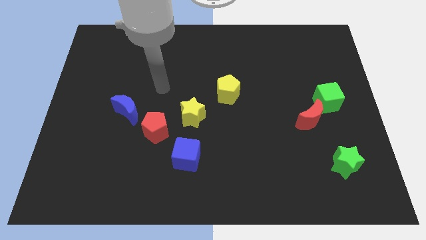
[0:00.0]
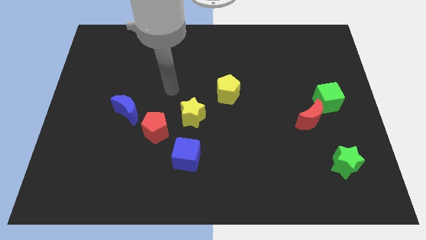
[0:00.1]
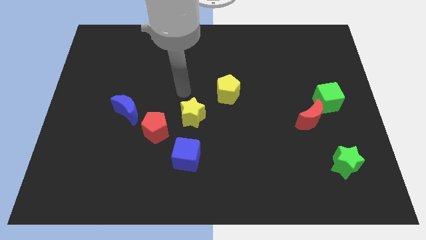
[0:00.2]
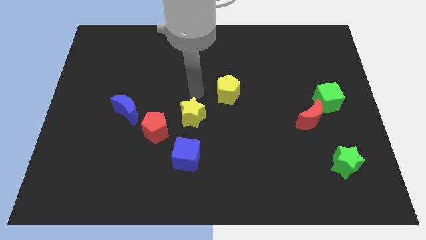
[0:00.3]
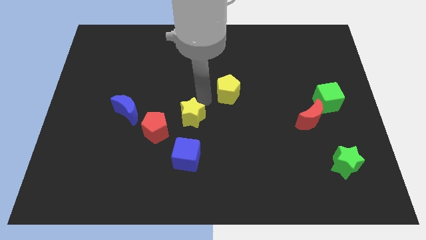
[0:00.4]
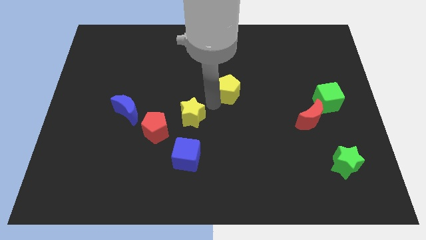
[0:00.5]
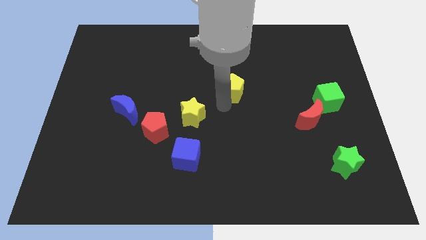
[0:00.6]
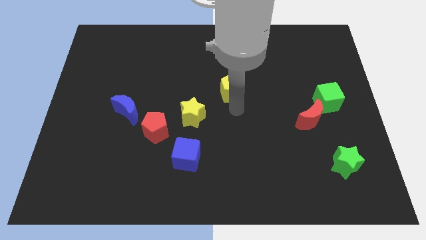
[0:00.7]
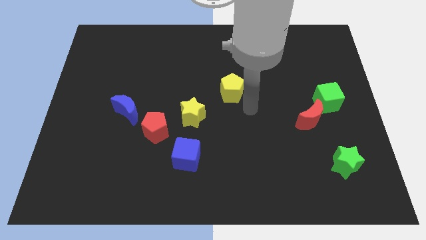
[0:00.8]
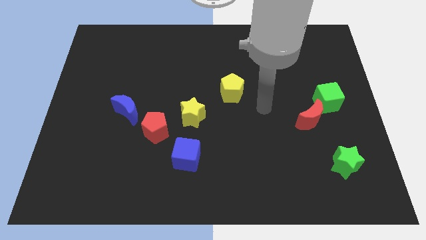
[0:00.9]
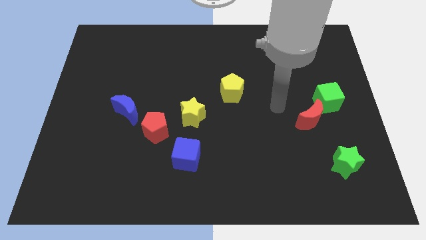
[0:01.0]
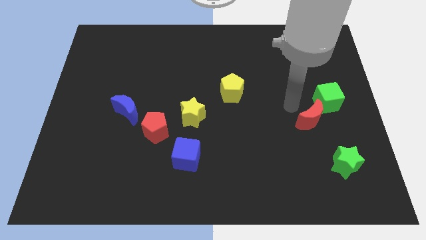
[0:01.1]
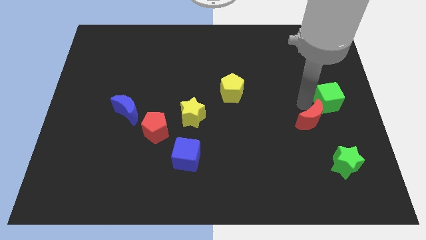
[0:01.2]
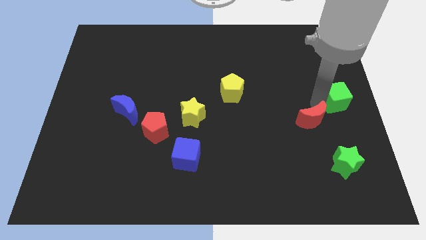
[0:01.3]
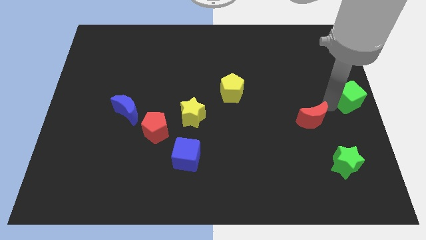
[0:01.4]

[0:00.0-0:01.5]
pull the red moon apart from the green cube

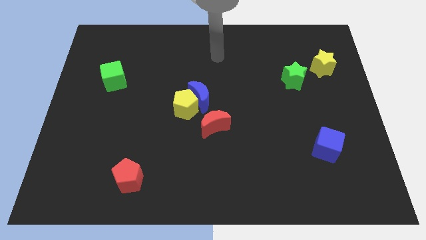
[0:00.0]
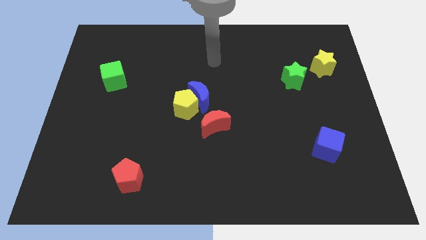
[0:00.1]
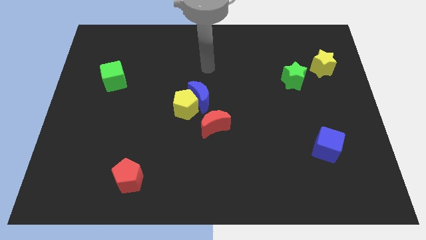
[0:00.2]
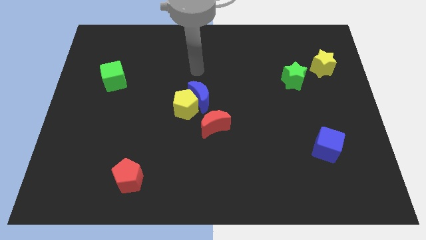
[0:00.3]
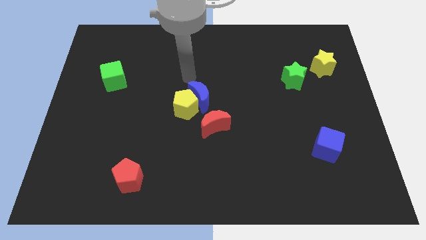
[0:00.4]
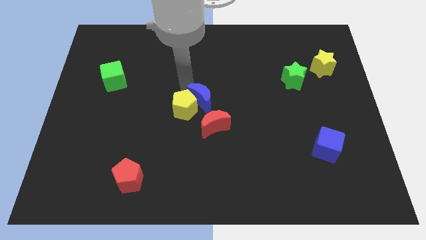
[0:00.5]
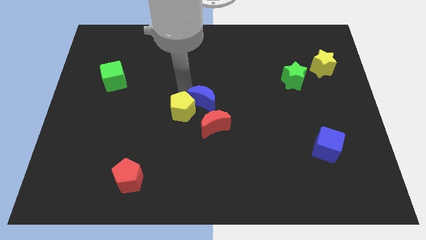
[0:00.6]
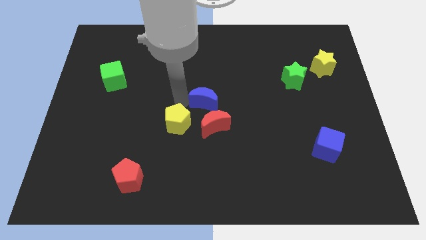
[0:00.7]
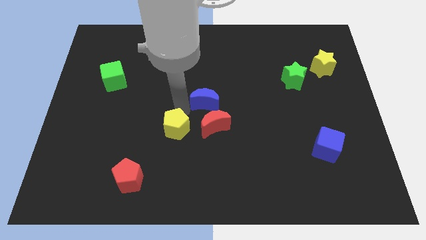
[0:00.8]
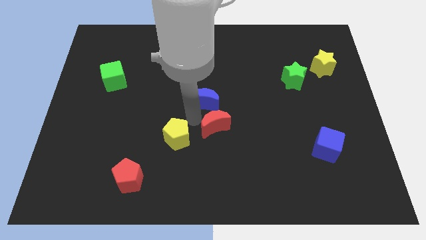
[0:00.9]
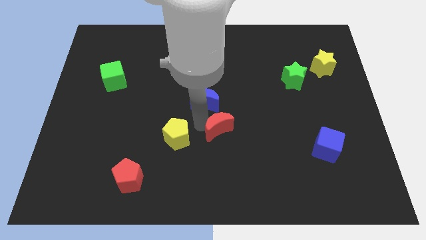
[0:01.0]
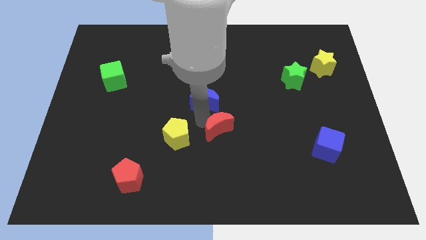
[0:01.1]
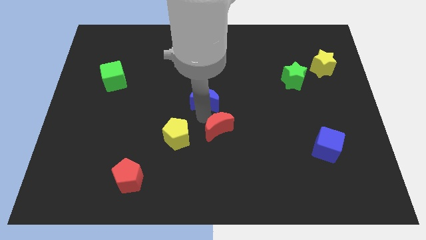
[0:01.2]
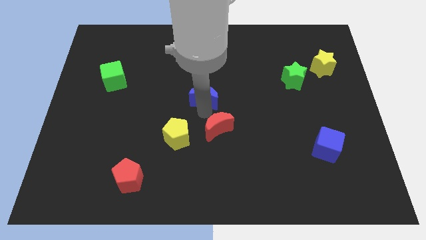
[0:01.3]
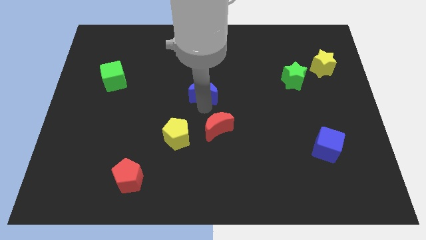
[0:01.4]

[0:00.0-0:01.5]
separate the blue moon from the yellow pentagon and red moon

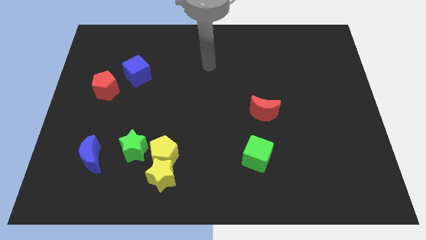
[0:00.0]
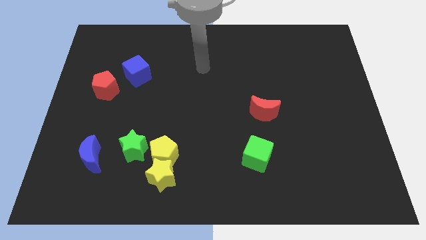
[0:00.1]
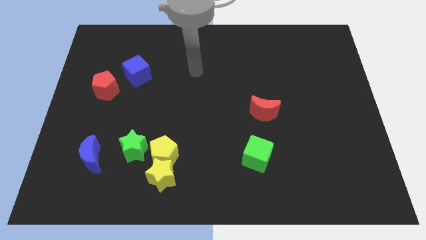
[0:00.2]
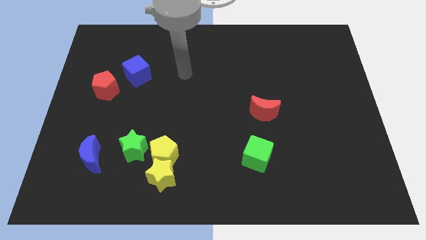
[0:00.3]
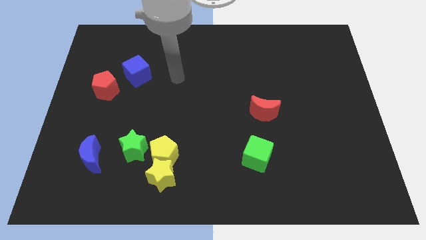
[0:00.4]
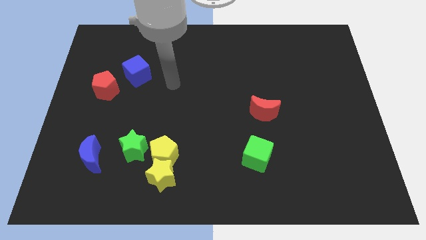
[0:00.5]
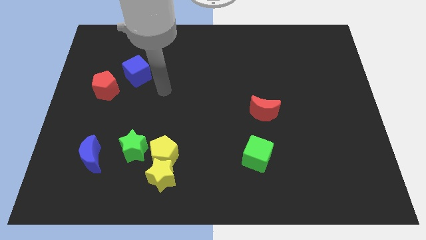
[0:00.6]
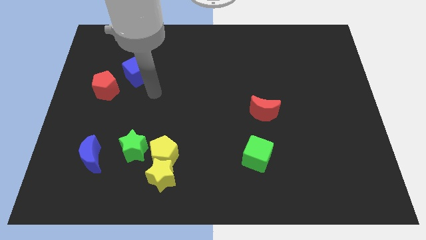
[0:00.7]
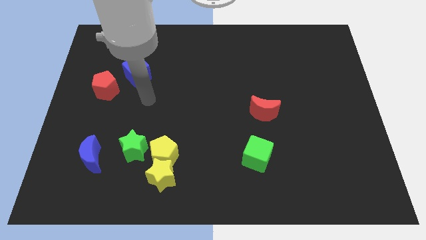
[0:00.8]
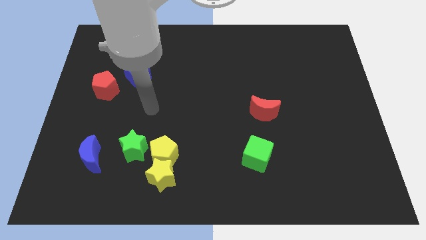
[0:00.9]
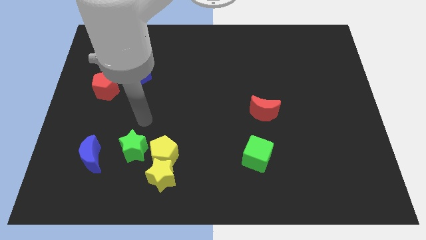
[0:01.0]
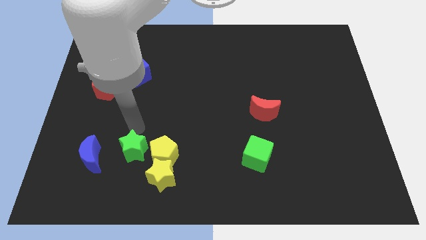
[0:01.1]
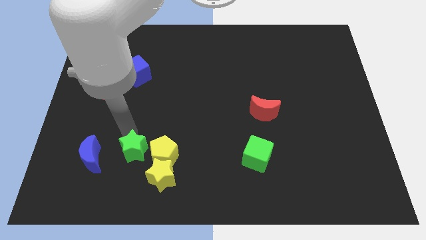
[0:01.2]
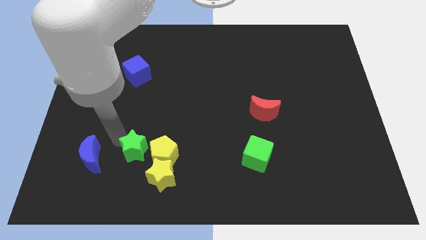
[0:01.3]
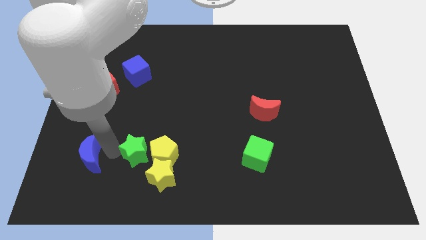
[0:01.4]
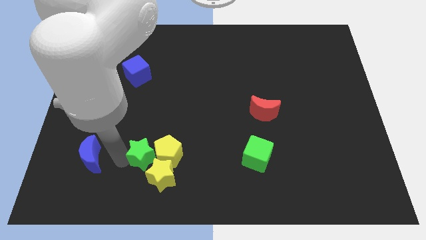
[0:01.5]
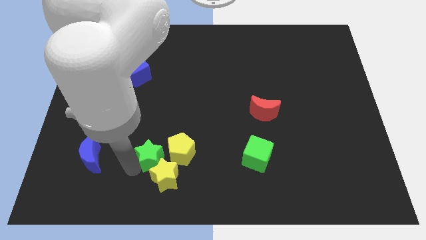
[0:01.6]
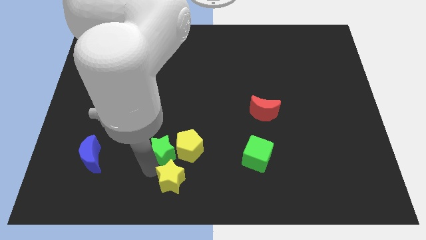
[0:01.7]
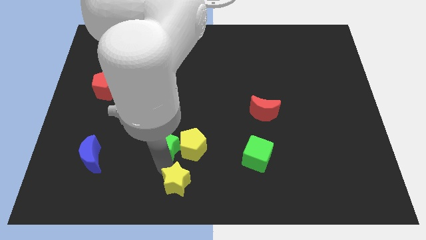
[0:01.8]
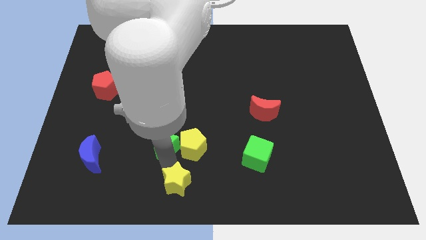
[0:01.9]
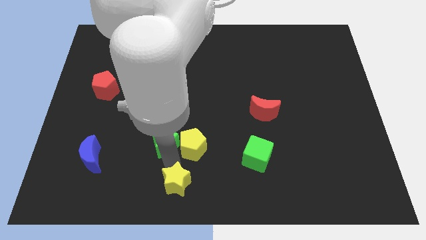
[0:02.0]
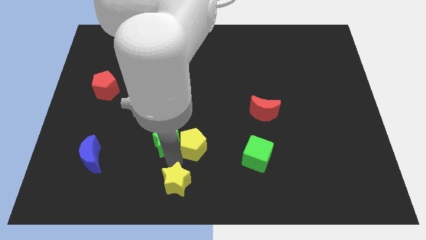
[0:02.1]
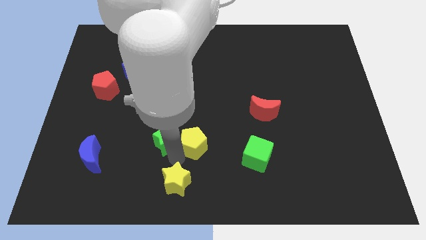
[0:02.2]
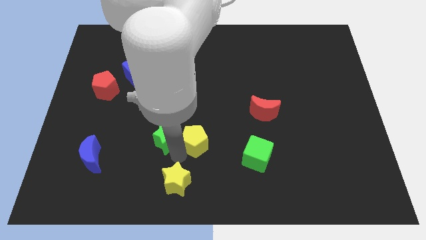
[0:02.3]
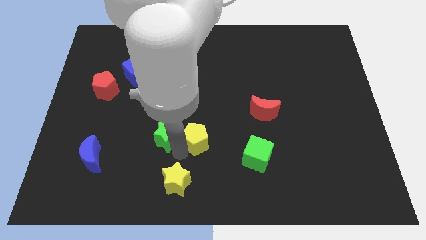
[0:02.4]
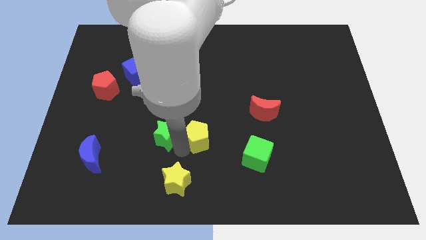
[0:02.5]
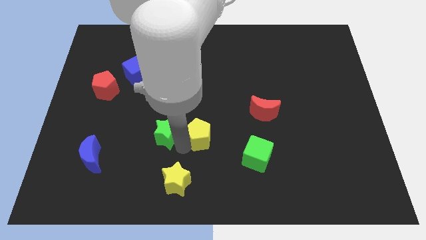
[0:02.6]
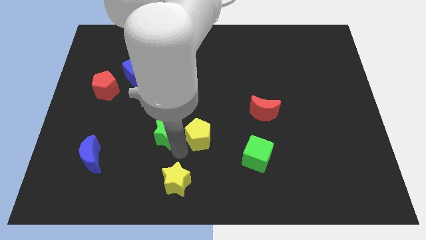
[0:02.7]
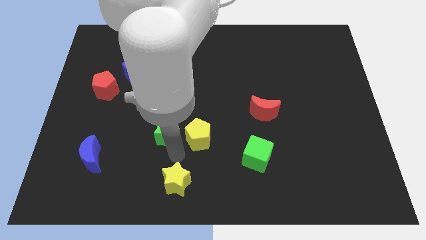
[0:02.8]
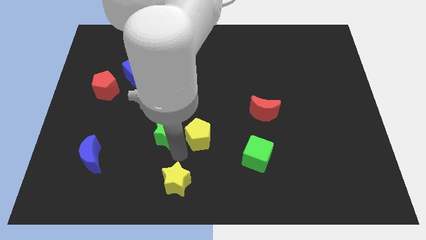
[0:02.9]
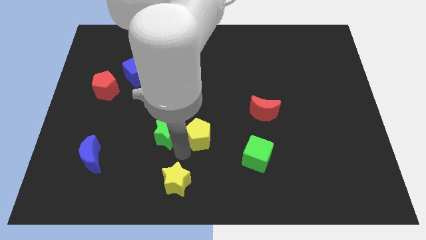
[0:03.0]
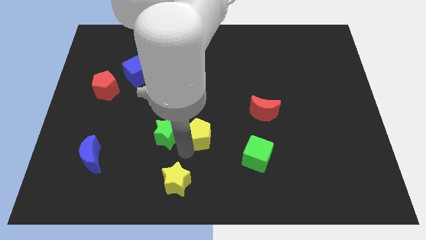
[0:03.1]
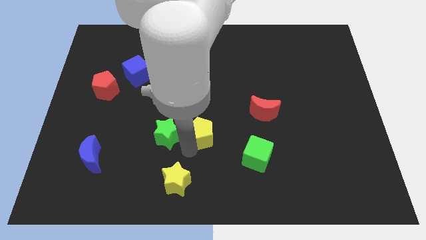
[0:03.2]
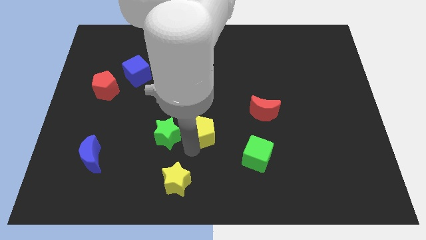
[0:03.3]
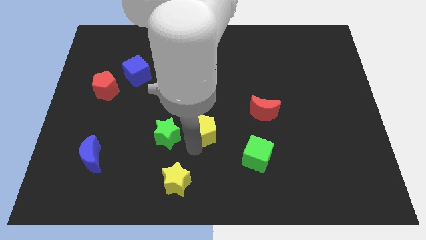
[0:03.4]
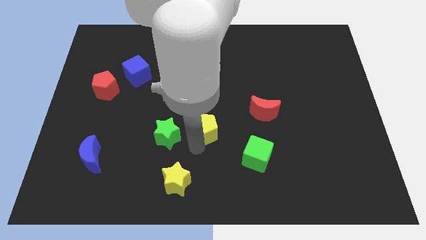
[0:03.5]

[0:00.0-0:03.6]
separate the yellow pentagon from the yellow star and green star

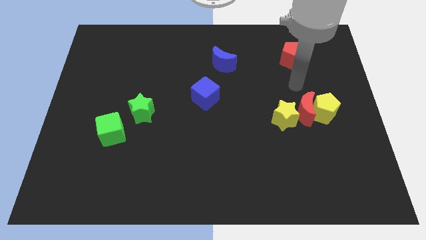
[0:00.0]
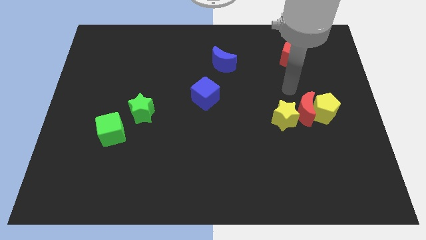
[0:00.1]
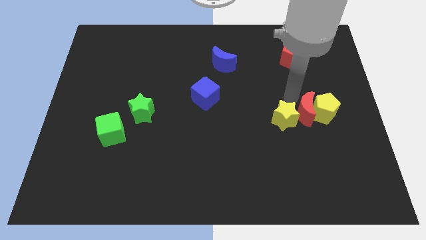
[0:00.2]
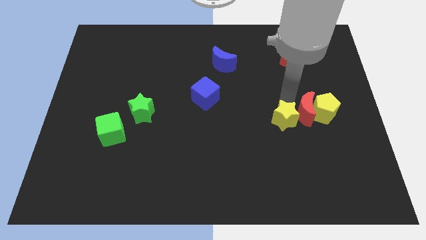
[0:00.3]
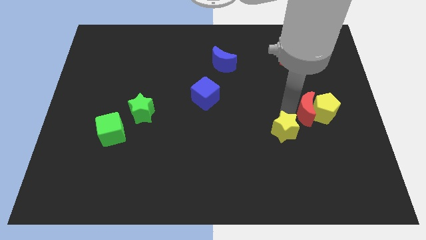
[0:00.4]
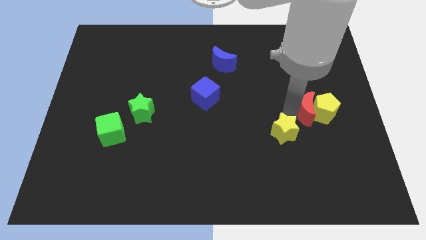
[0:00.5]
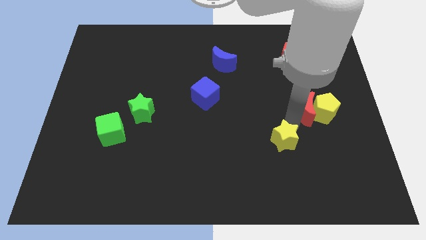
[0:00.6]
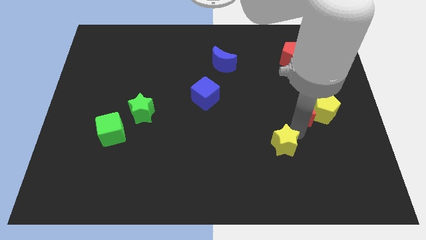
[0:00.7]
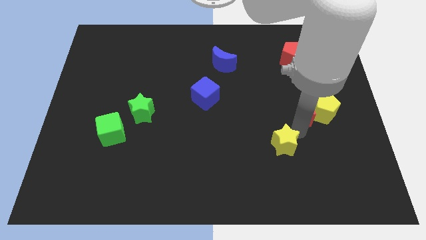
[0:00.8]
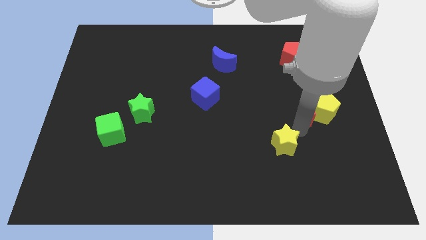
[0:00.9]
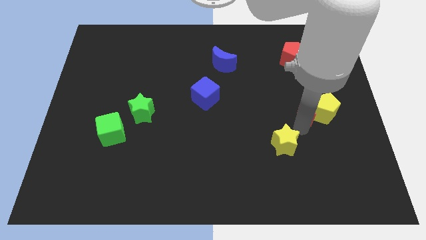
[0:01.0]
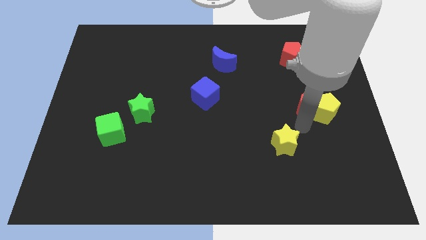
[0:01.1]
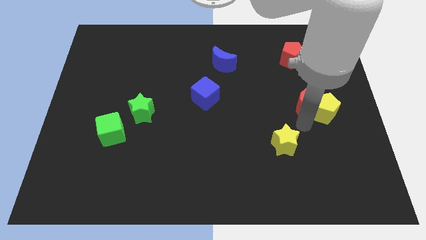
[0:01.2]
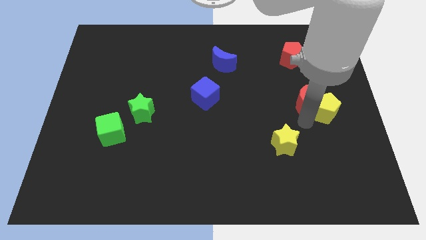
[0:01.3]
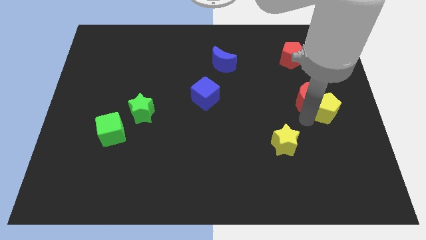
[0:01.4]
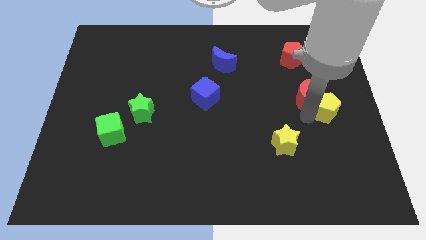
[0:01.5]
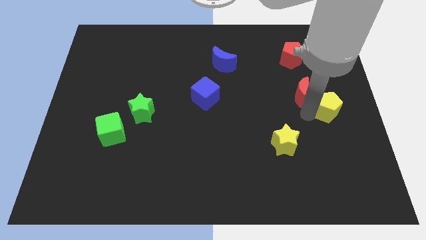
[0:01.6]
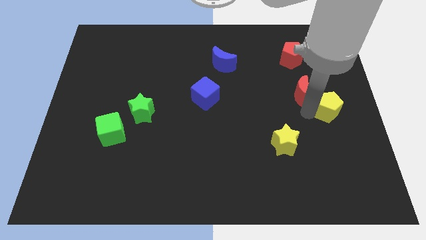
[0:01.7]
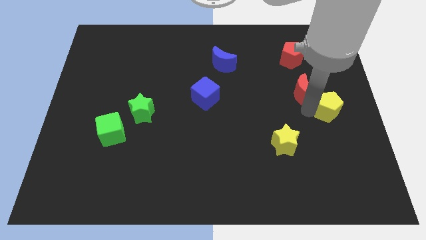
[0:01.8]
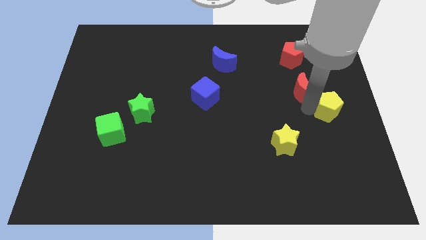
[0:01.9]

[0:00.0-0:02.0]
move the red moon away from the yellow pentagon and yellow star

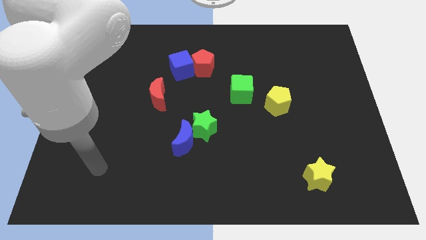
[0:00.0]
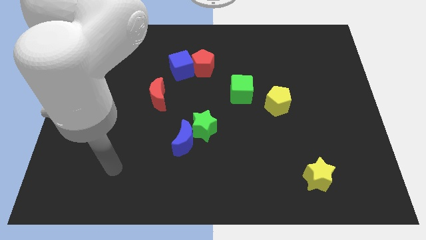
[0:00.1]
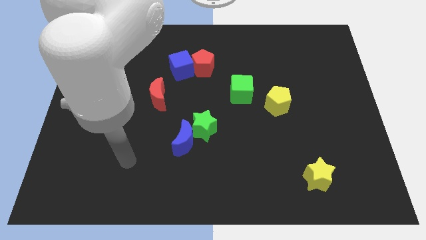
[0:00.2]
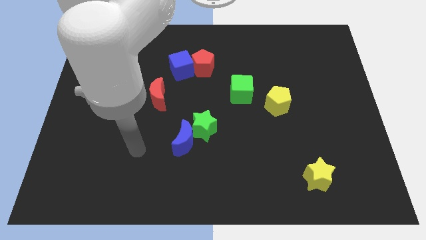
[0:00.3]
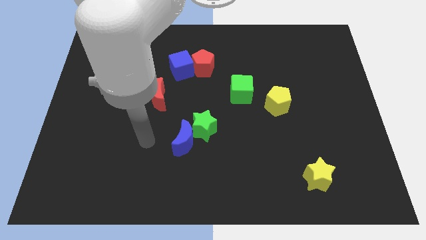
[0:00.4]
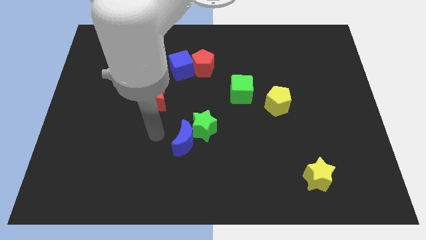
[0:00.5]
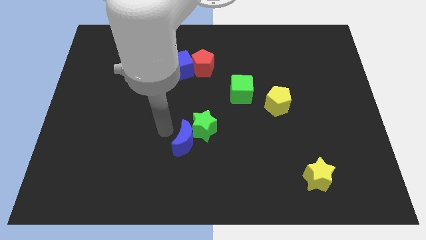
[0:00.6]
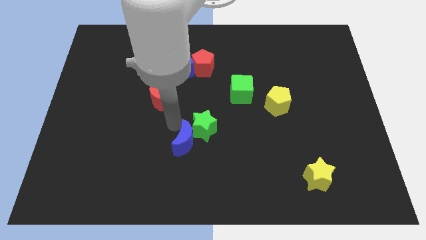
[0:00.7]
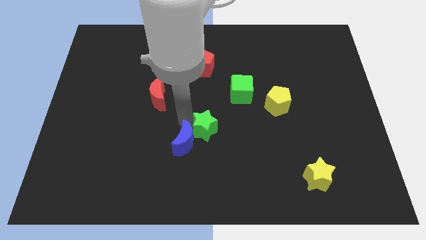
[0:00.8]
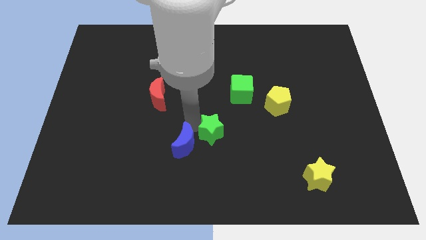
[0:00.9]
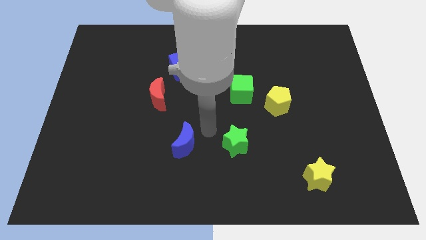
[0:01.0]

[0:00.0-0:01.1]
separate the blue moon from the green star
